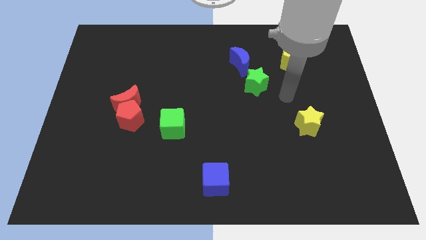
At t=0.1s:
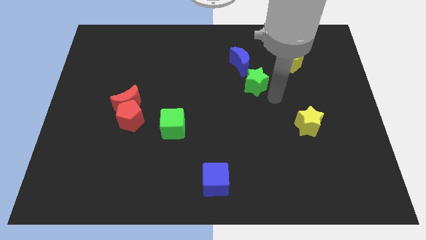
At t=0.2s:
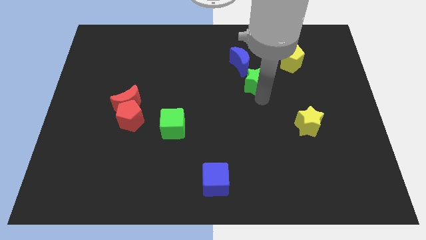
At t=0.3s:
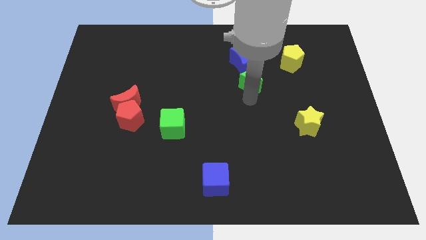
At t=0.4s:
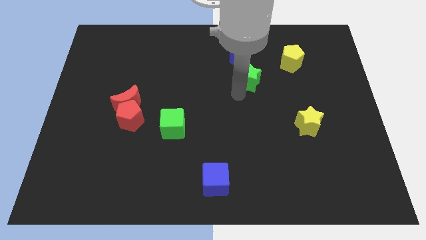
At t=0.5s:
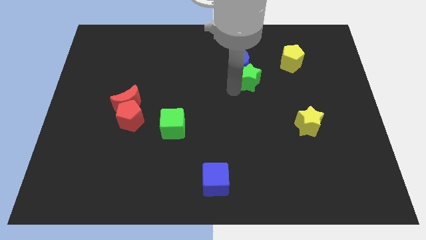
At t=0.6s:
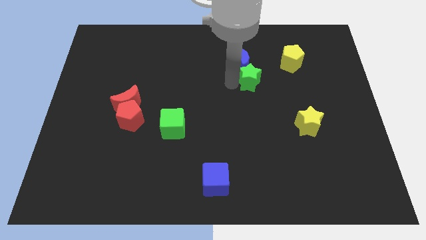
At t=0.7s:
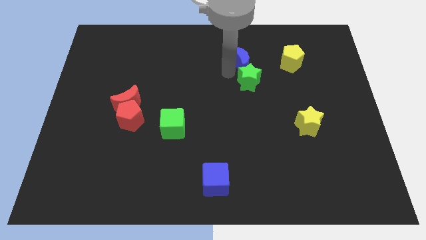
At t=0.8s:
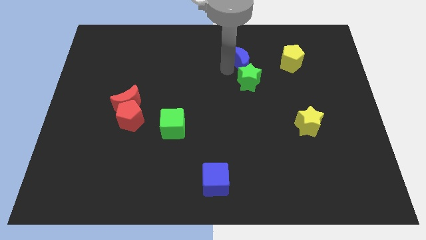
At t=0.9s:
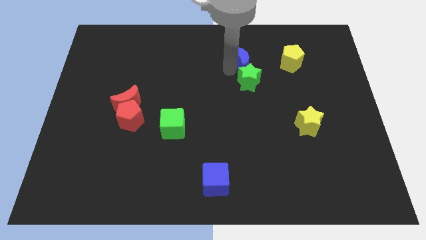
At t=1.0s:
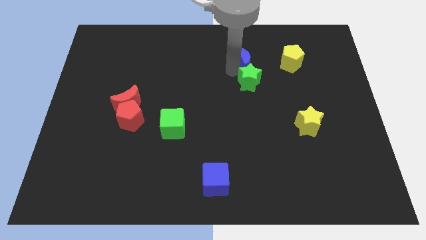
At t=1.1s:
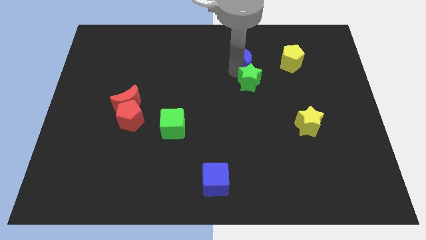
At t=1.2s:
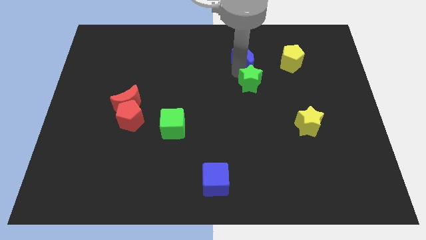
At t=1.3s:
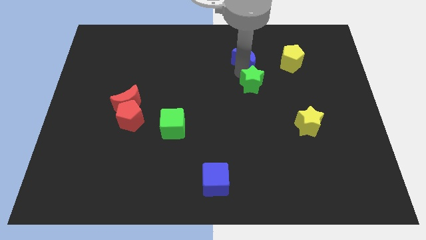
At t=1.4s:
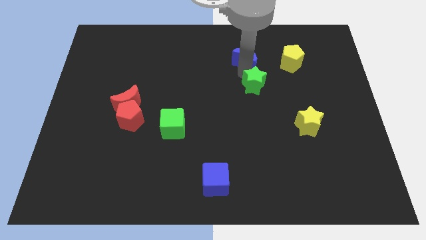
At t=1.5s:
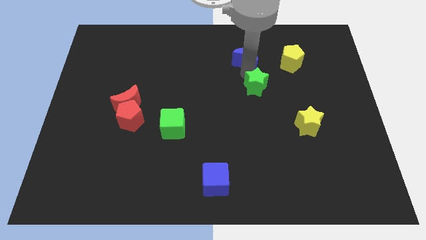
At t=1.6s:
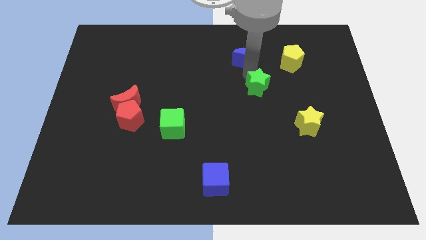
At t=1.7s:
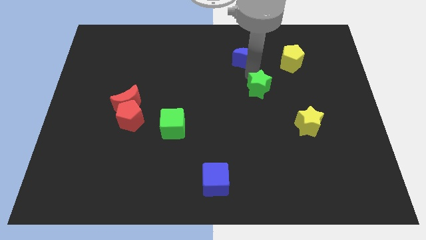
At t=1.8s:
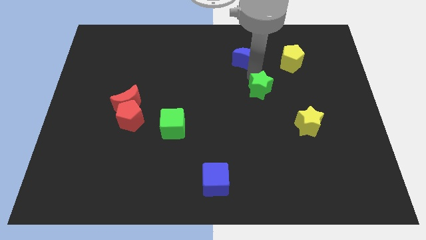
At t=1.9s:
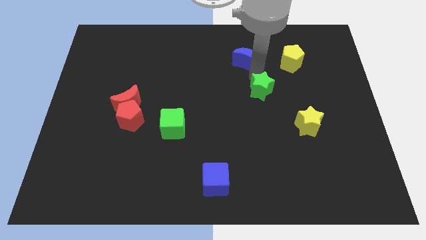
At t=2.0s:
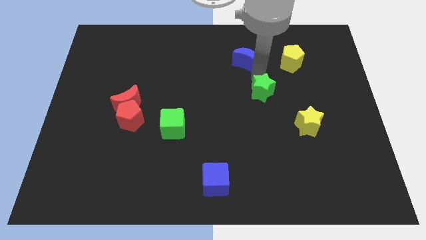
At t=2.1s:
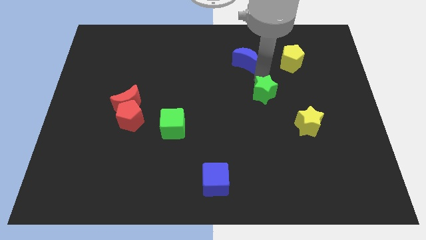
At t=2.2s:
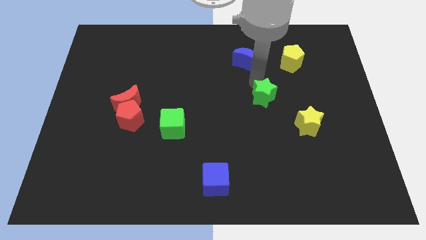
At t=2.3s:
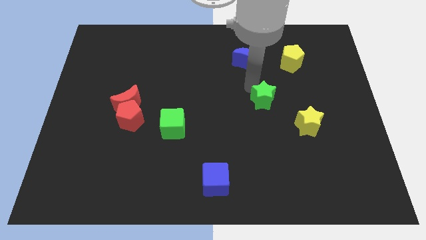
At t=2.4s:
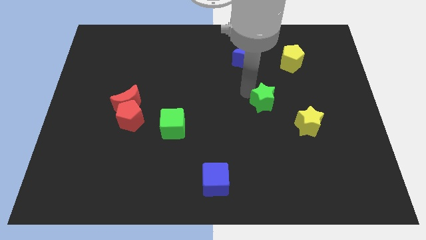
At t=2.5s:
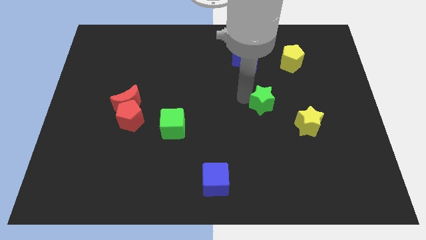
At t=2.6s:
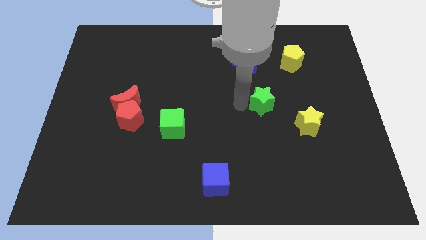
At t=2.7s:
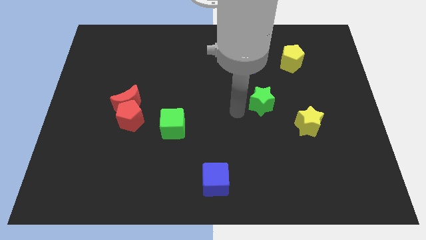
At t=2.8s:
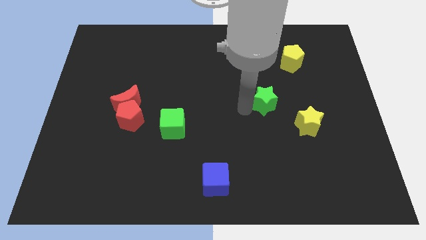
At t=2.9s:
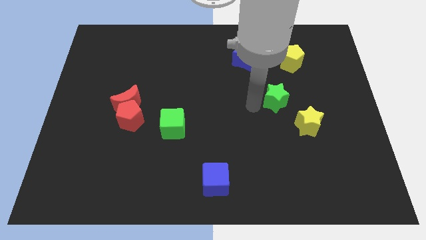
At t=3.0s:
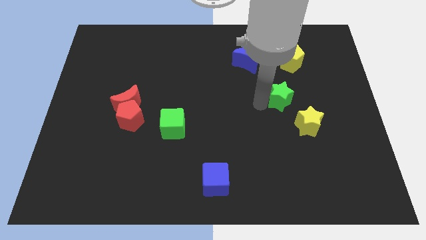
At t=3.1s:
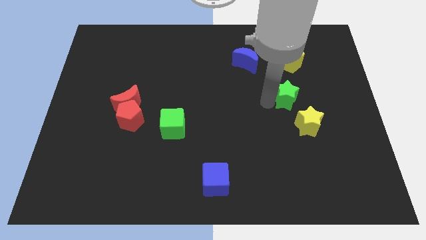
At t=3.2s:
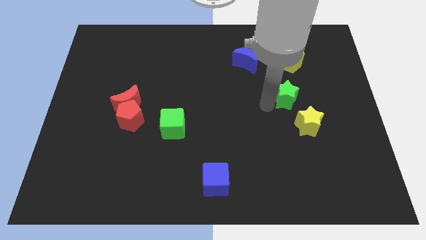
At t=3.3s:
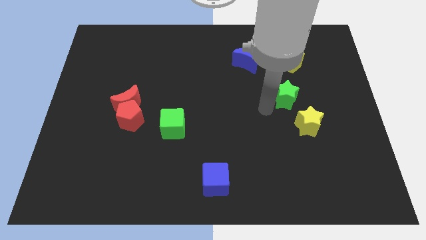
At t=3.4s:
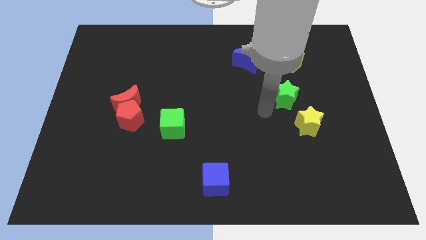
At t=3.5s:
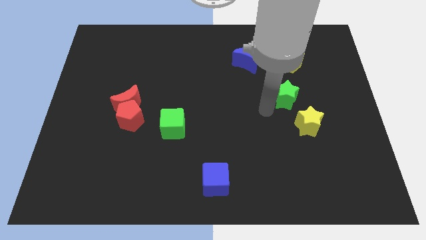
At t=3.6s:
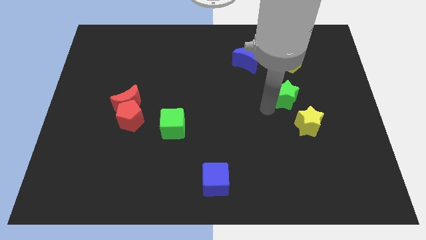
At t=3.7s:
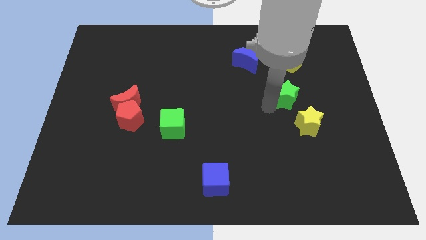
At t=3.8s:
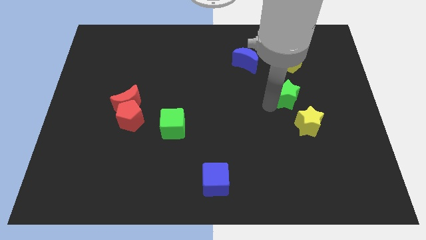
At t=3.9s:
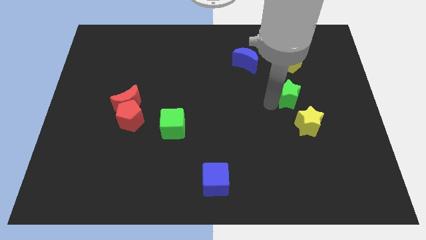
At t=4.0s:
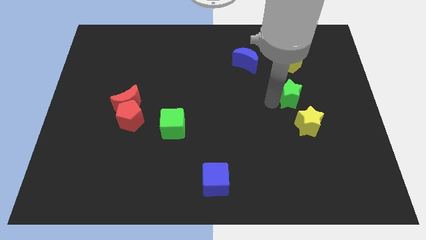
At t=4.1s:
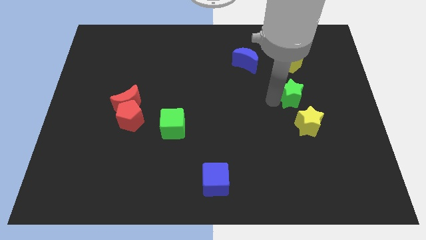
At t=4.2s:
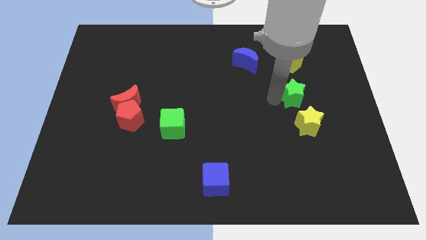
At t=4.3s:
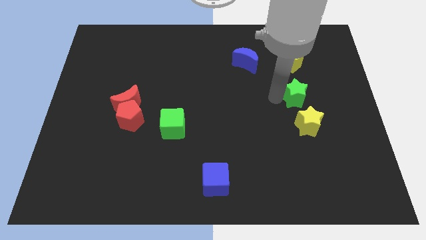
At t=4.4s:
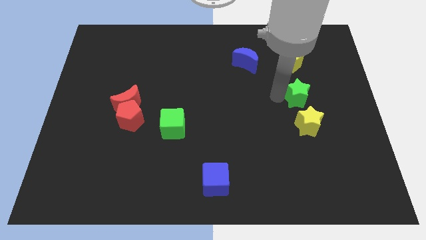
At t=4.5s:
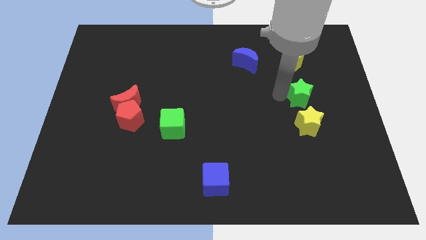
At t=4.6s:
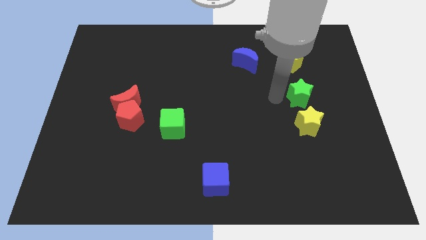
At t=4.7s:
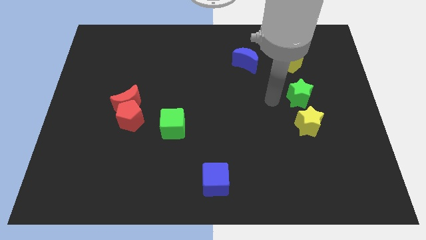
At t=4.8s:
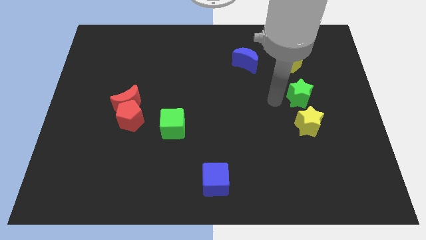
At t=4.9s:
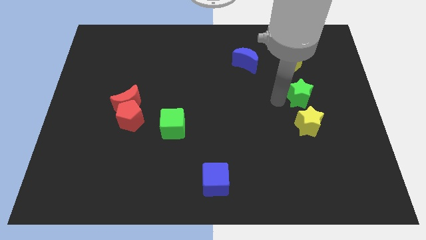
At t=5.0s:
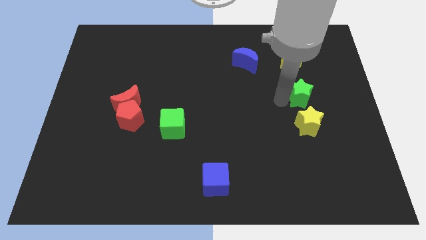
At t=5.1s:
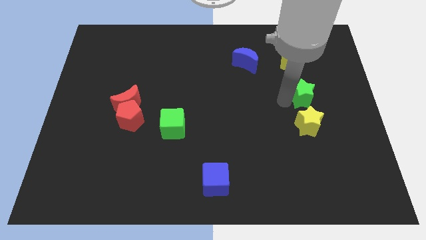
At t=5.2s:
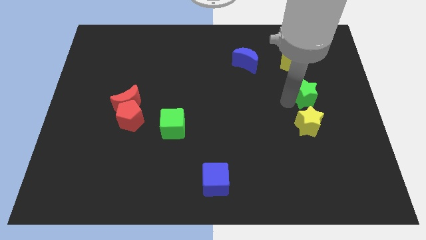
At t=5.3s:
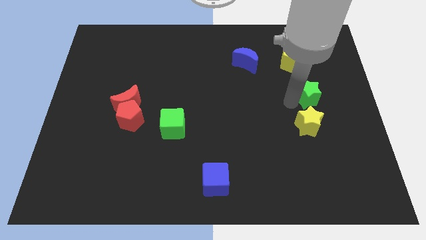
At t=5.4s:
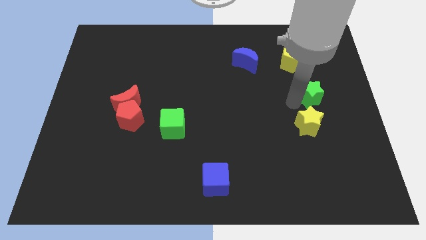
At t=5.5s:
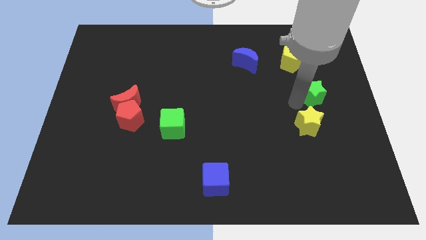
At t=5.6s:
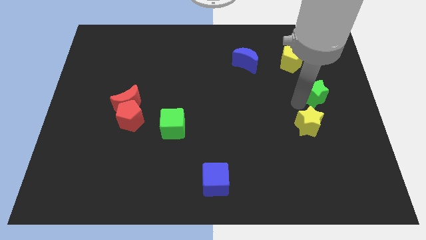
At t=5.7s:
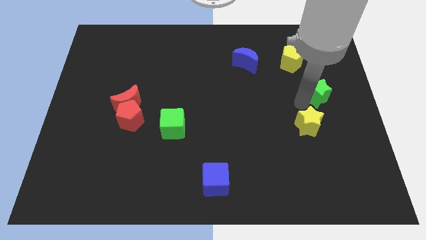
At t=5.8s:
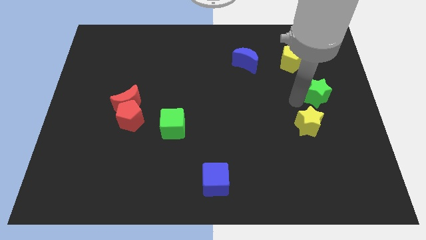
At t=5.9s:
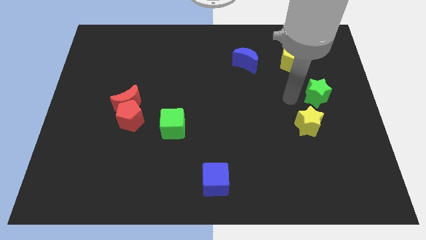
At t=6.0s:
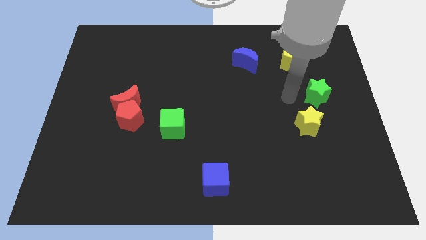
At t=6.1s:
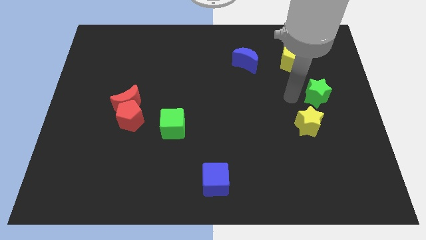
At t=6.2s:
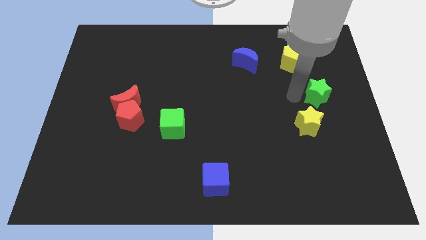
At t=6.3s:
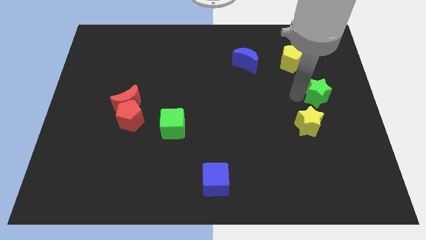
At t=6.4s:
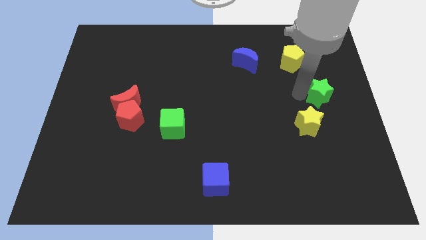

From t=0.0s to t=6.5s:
slide the green star to the right side

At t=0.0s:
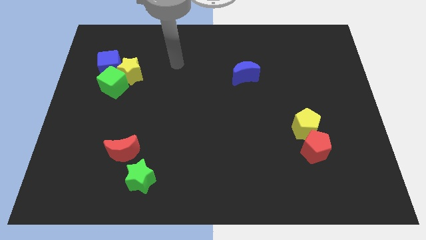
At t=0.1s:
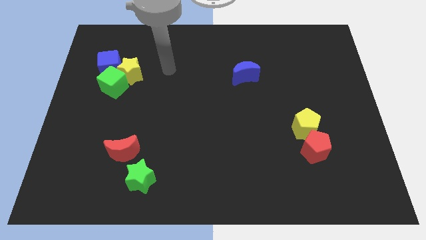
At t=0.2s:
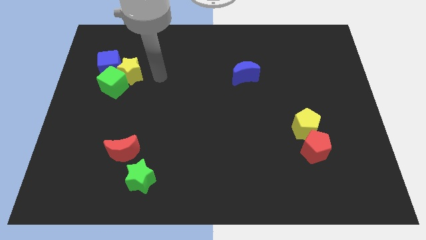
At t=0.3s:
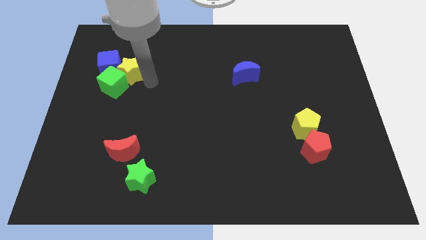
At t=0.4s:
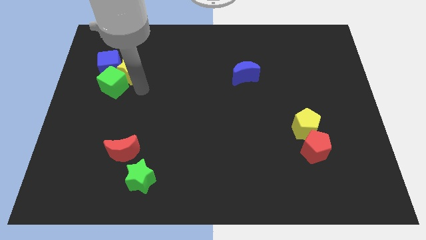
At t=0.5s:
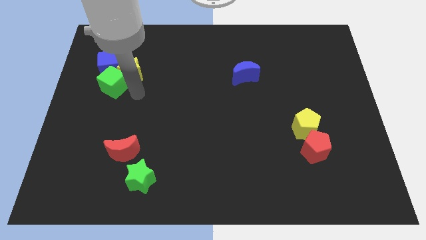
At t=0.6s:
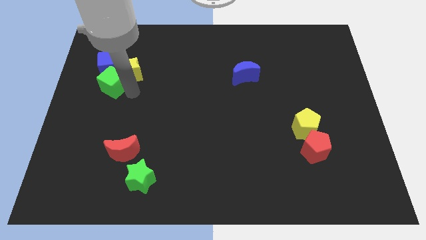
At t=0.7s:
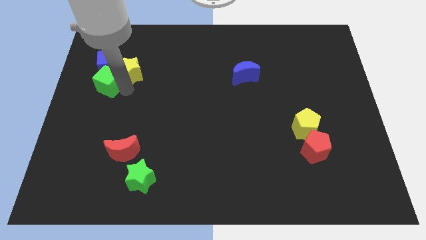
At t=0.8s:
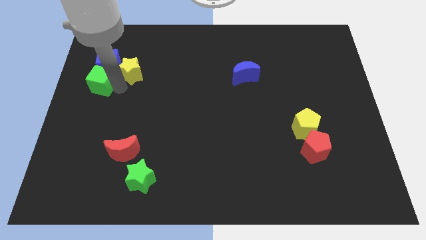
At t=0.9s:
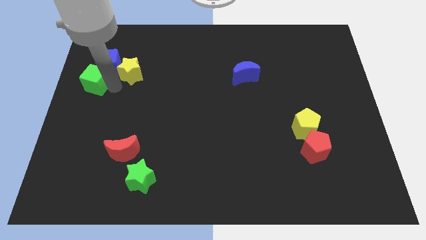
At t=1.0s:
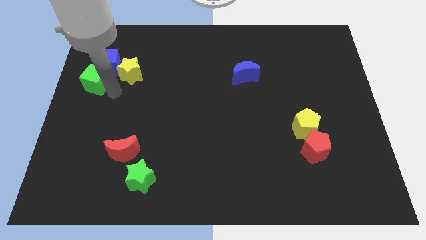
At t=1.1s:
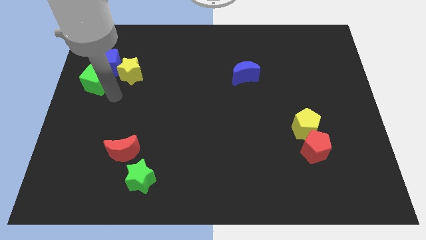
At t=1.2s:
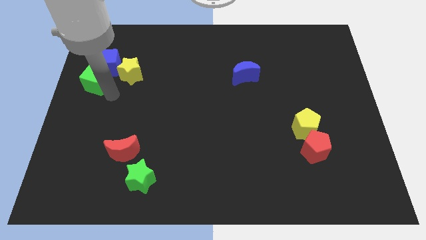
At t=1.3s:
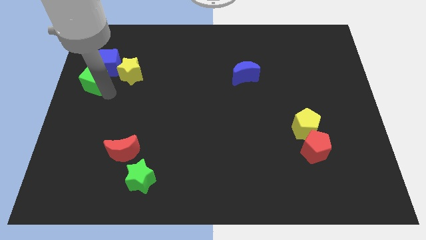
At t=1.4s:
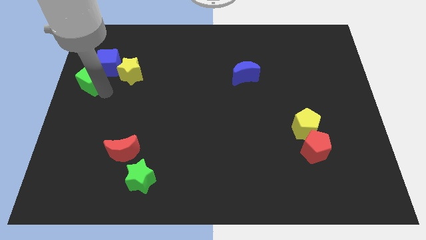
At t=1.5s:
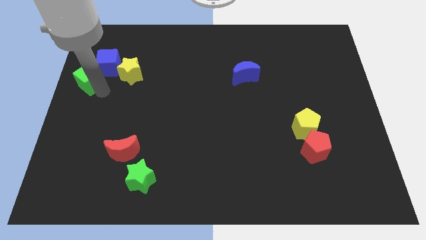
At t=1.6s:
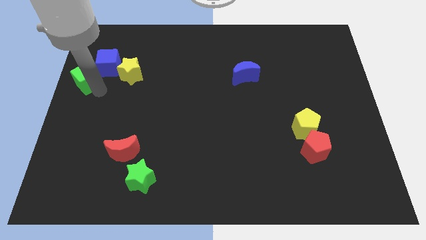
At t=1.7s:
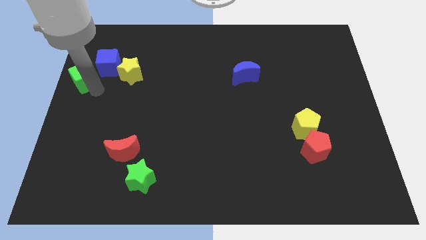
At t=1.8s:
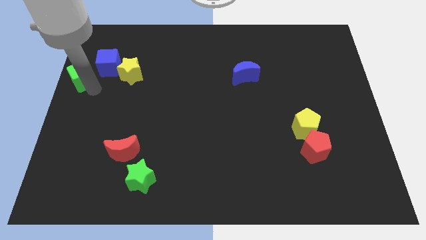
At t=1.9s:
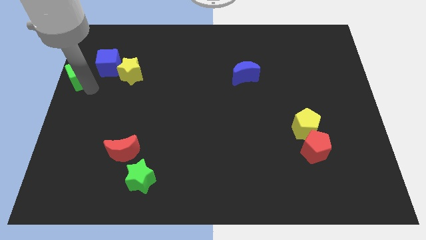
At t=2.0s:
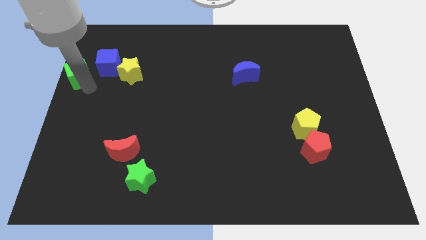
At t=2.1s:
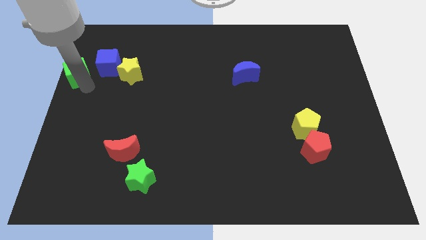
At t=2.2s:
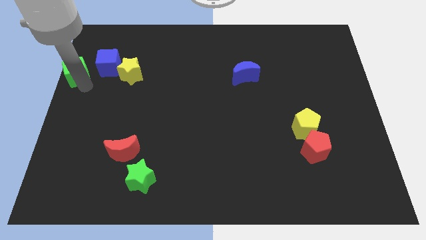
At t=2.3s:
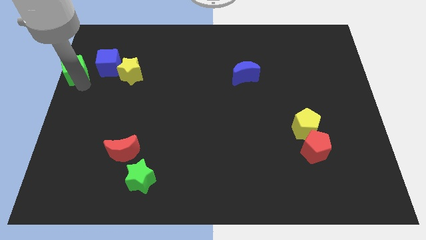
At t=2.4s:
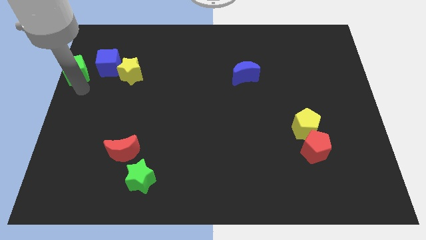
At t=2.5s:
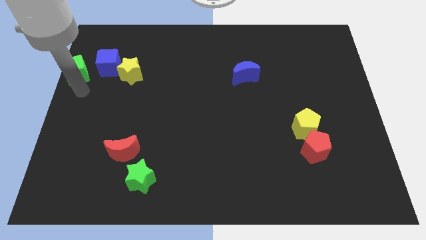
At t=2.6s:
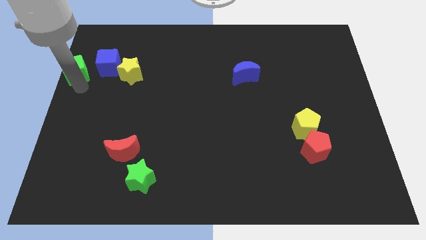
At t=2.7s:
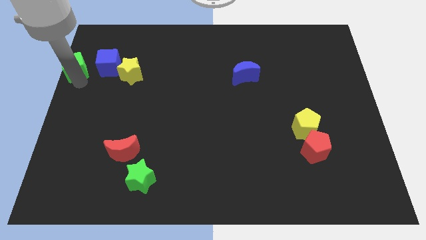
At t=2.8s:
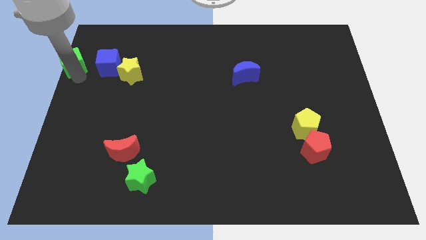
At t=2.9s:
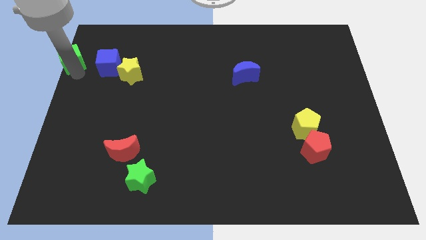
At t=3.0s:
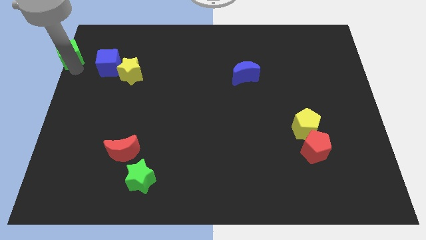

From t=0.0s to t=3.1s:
move the green cube to the top left of the board
